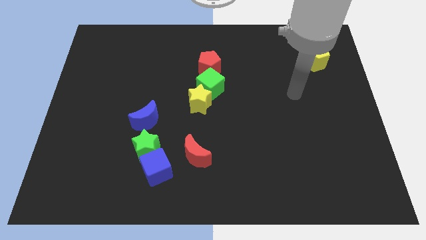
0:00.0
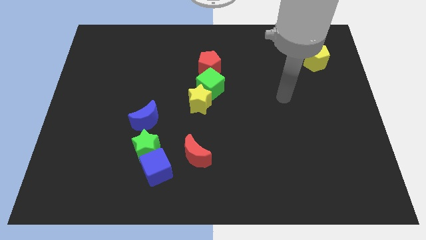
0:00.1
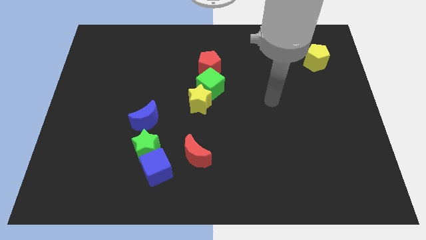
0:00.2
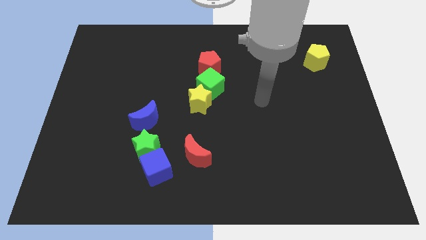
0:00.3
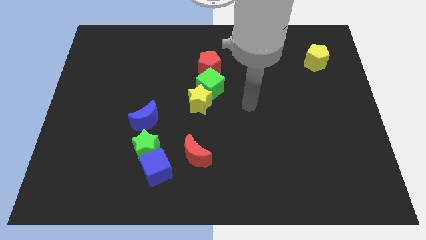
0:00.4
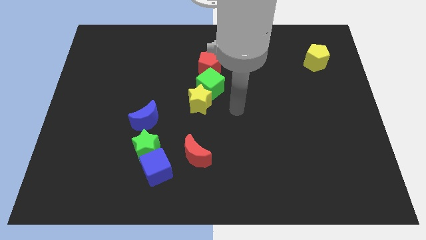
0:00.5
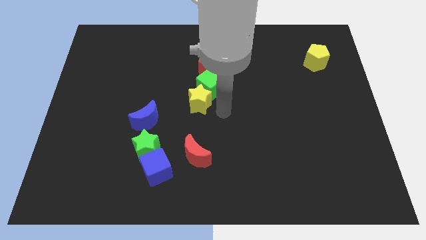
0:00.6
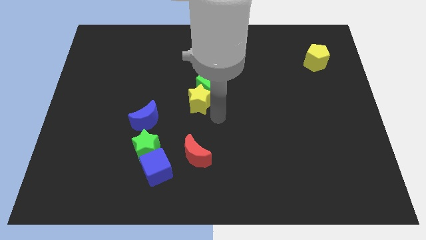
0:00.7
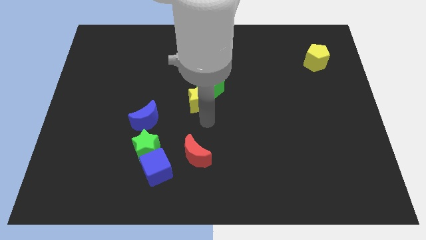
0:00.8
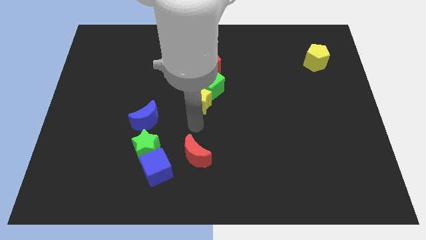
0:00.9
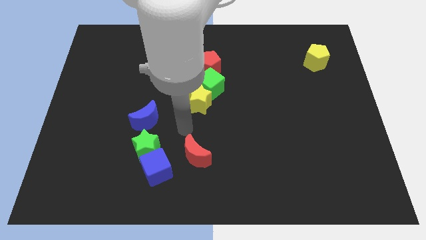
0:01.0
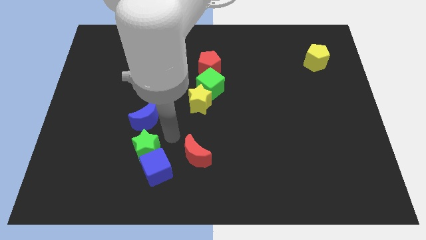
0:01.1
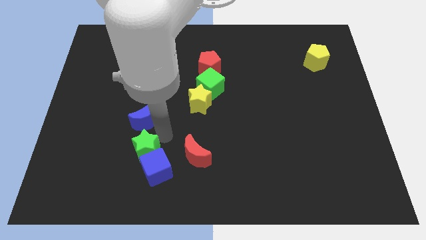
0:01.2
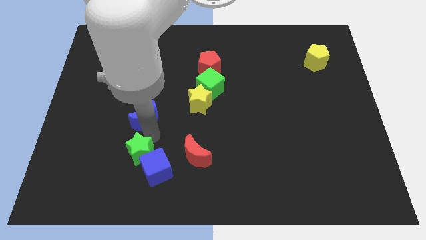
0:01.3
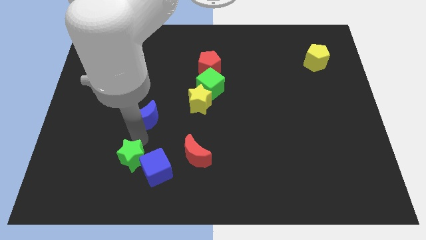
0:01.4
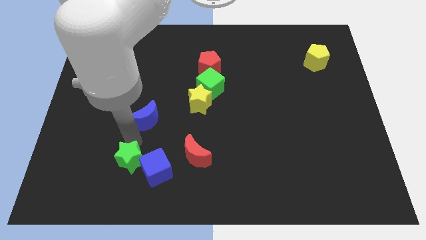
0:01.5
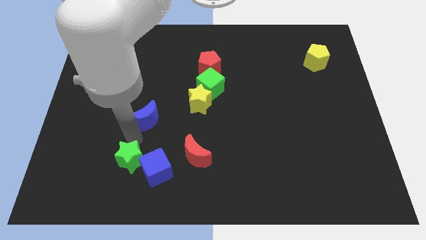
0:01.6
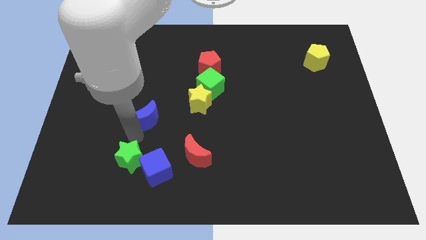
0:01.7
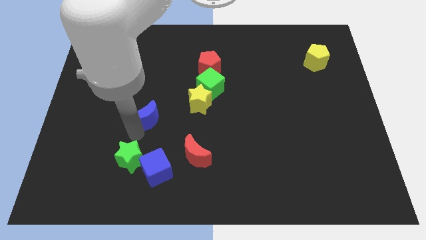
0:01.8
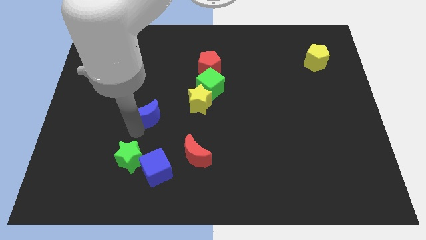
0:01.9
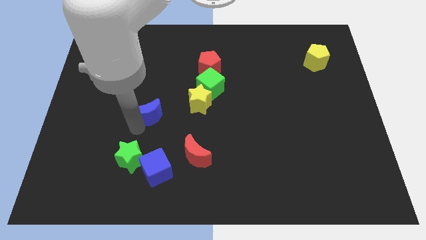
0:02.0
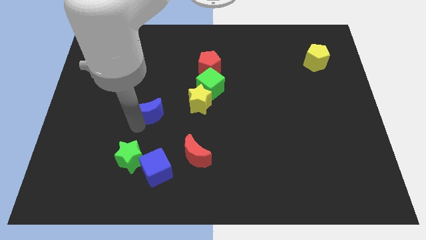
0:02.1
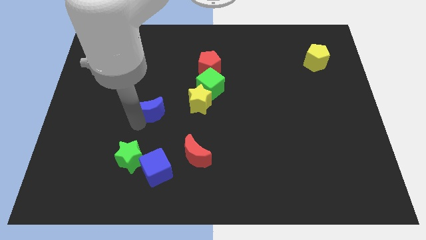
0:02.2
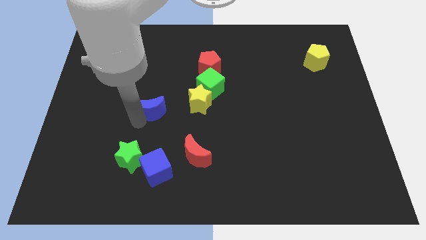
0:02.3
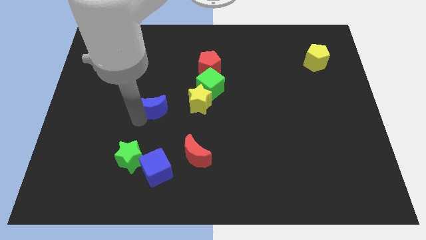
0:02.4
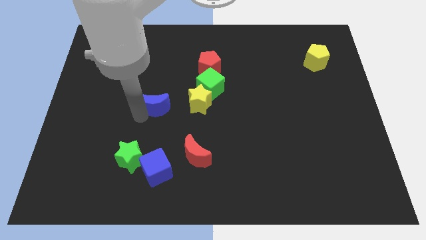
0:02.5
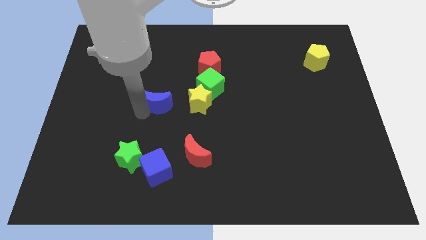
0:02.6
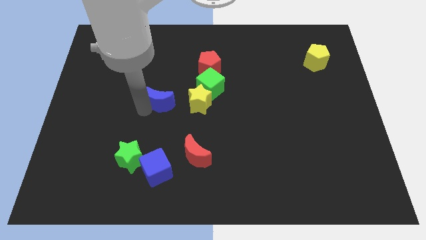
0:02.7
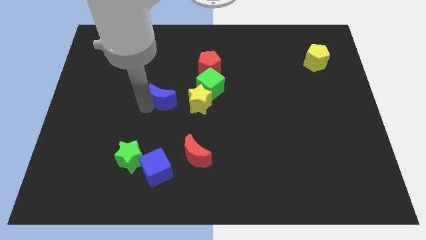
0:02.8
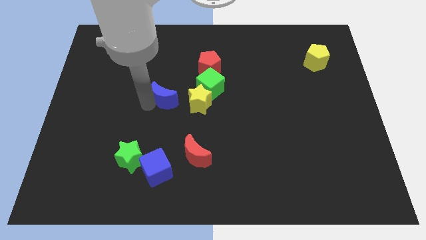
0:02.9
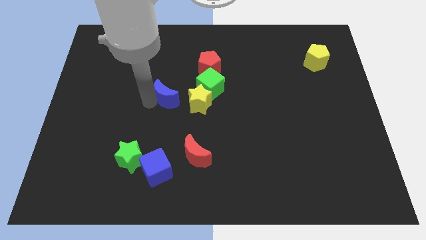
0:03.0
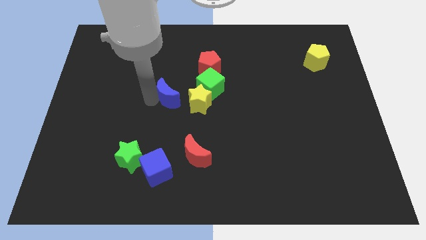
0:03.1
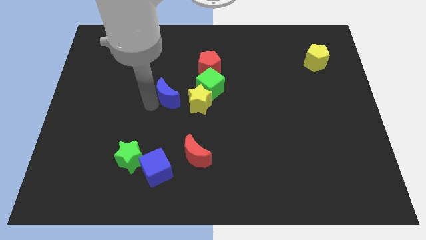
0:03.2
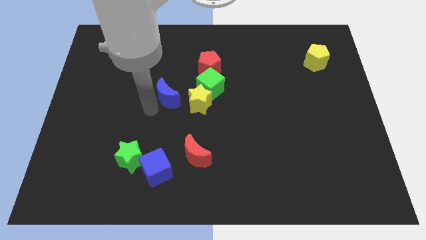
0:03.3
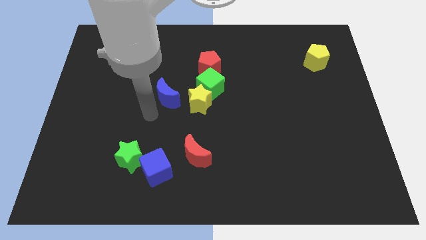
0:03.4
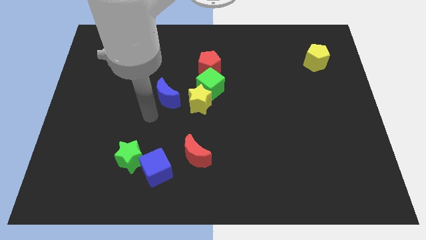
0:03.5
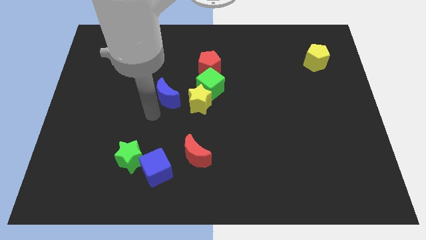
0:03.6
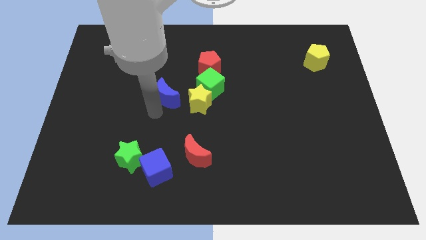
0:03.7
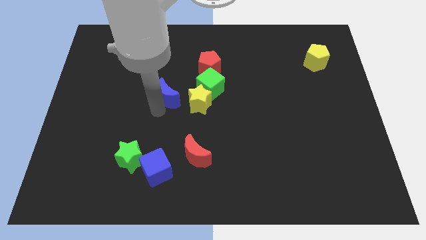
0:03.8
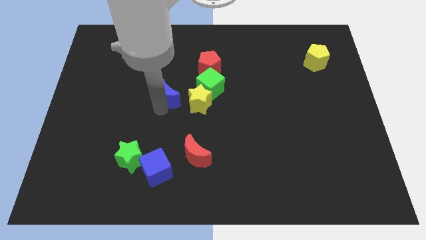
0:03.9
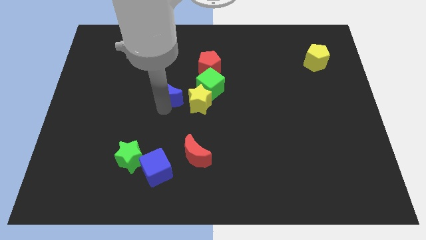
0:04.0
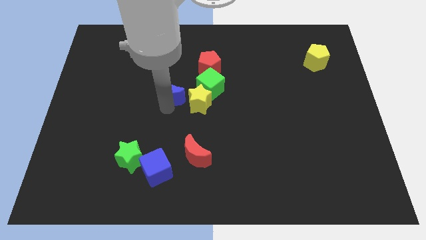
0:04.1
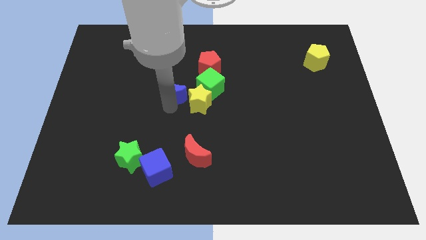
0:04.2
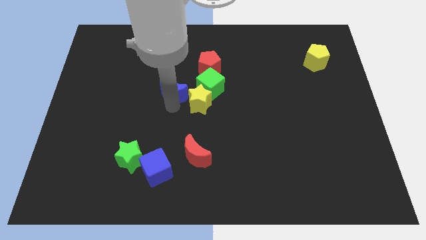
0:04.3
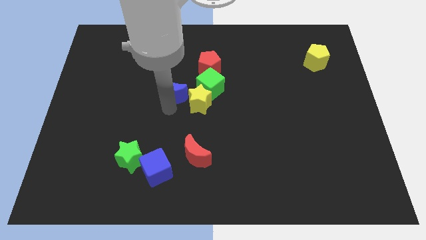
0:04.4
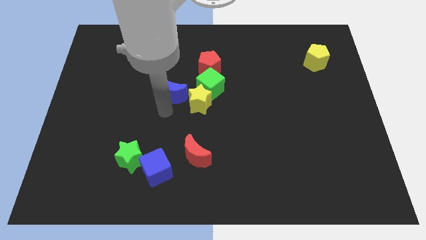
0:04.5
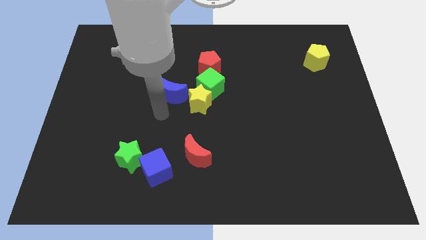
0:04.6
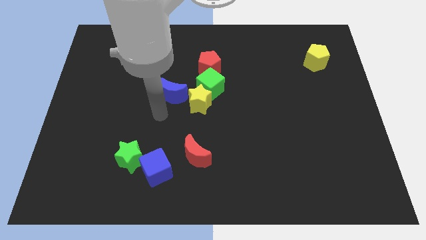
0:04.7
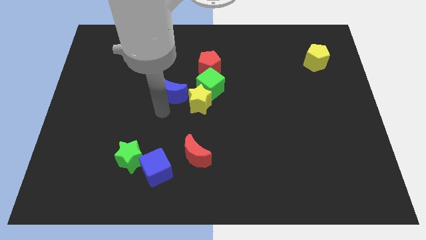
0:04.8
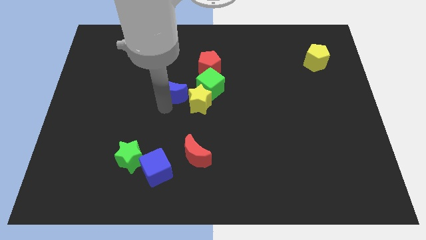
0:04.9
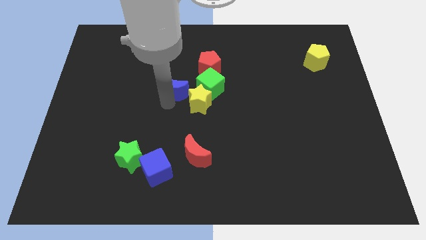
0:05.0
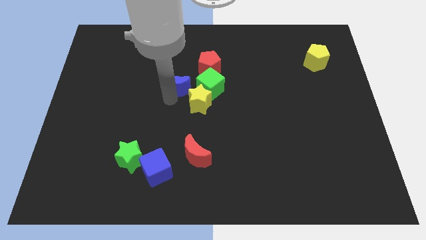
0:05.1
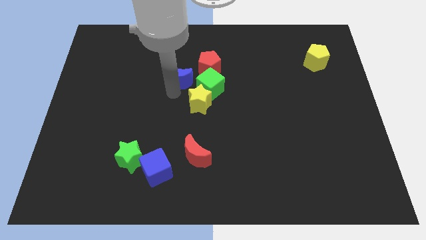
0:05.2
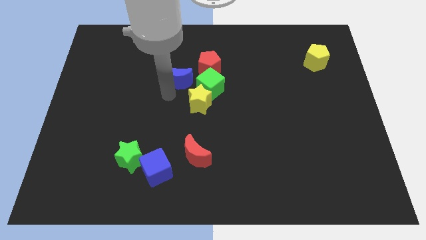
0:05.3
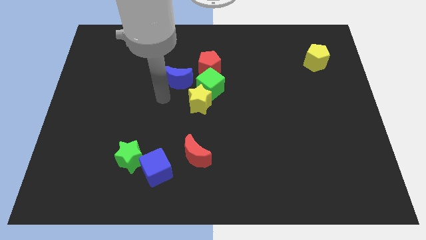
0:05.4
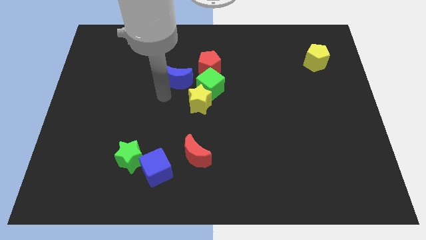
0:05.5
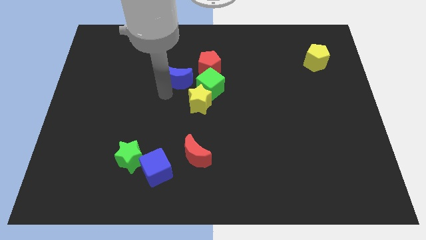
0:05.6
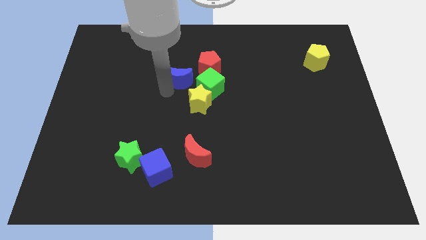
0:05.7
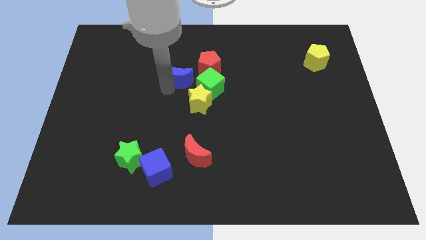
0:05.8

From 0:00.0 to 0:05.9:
move the blue moon to the top side of the yellow star

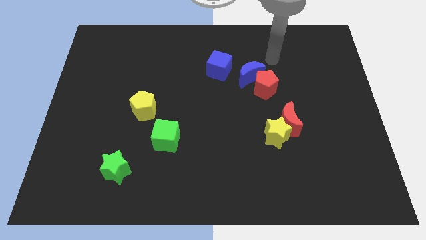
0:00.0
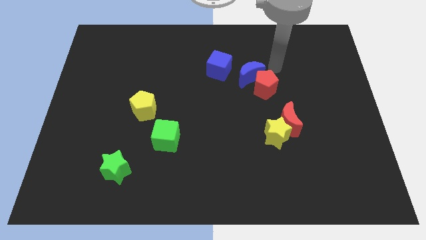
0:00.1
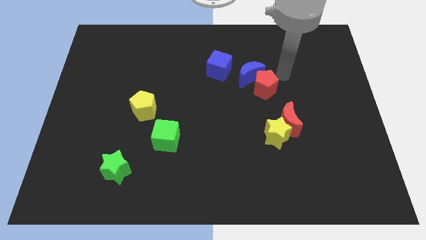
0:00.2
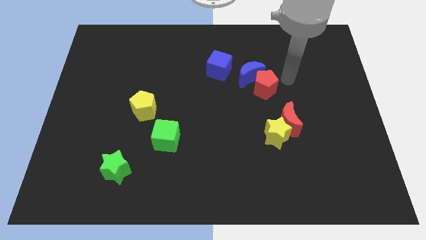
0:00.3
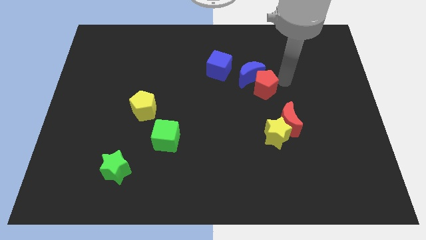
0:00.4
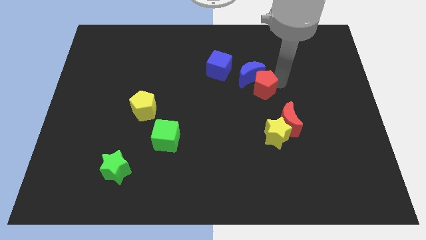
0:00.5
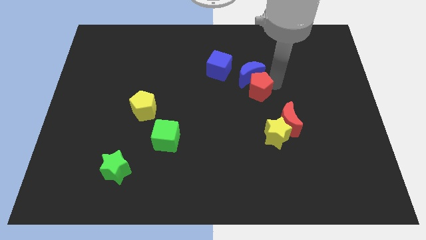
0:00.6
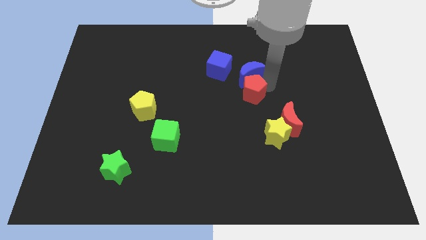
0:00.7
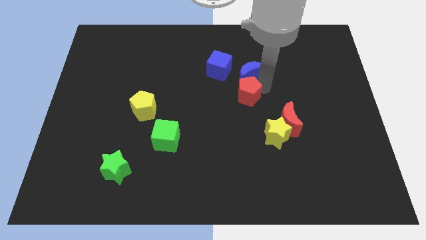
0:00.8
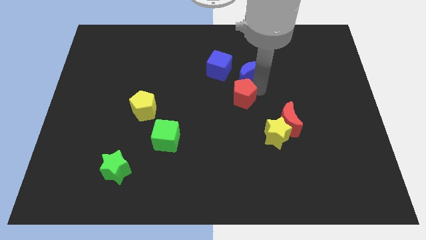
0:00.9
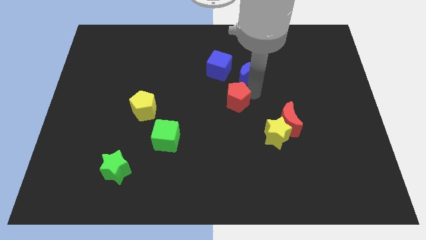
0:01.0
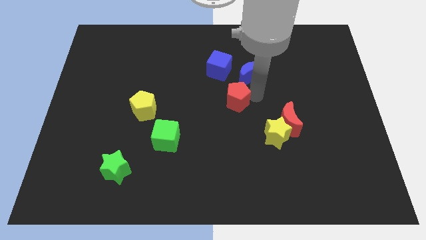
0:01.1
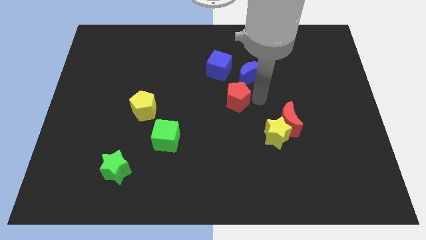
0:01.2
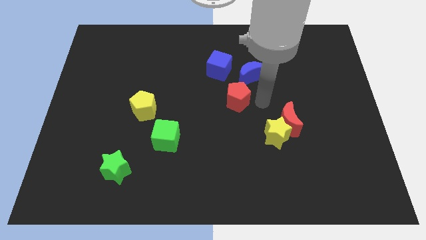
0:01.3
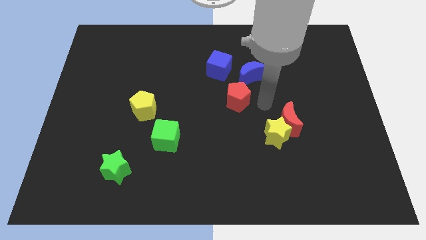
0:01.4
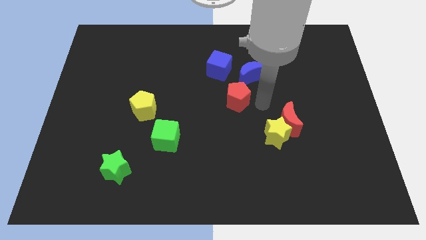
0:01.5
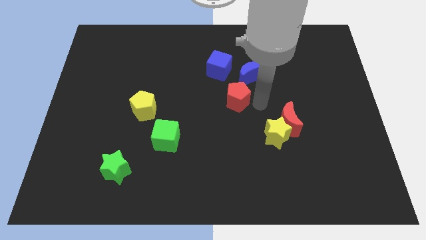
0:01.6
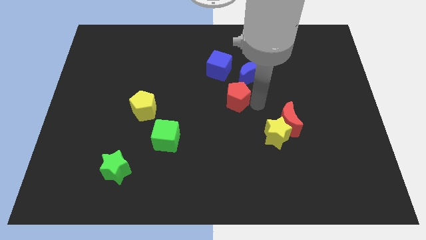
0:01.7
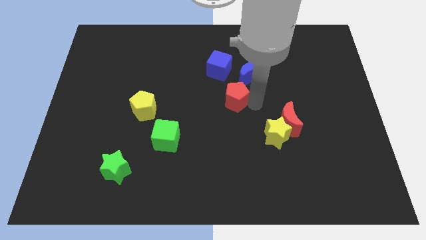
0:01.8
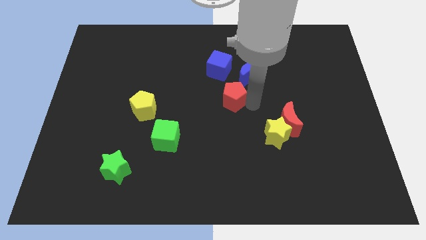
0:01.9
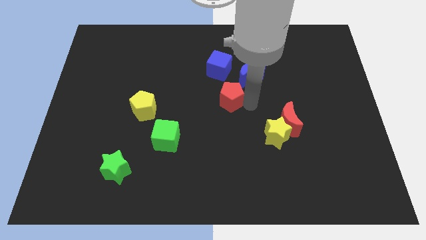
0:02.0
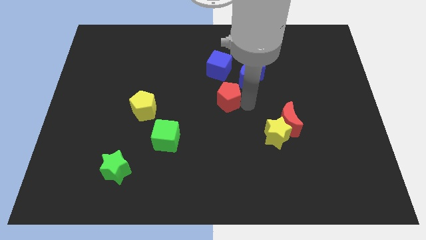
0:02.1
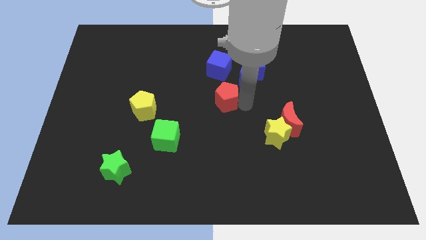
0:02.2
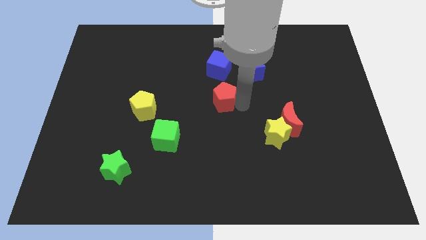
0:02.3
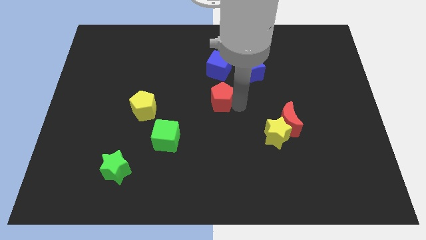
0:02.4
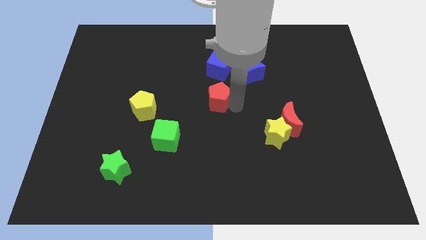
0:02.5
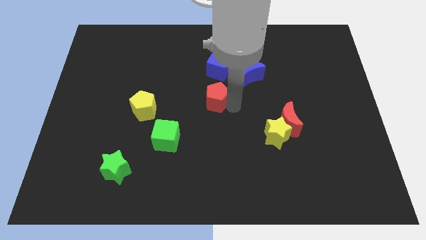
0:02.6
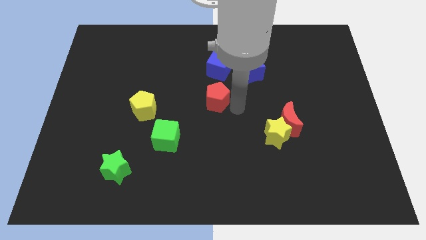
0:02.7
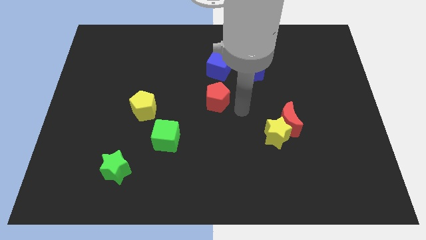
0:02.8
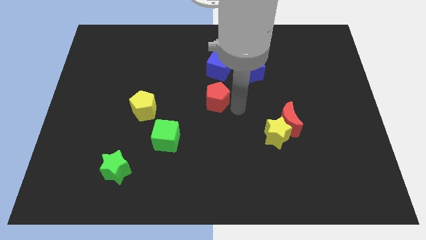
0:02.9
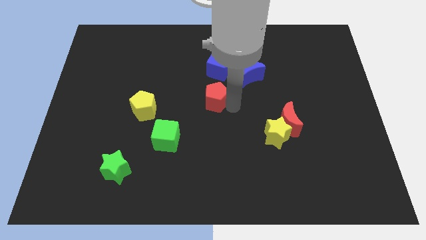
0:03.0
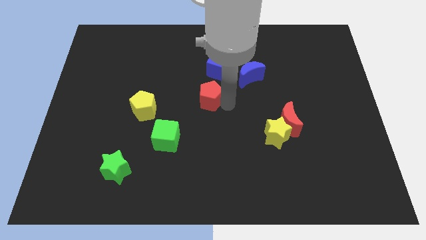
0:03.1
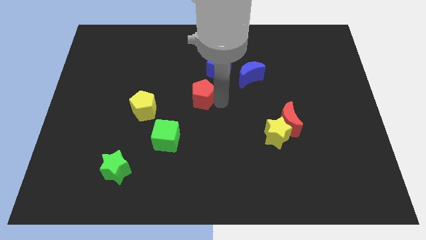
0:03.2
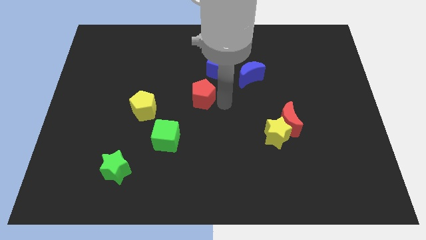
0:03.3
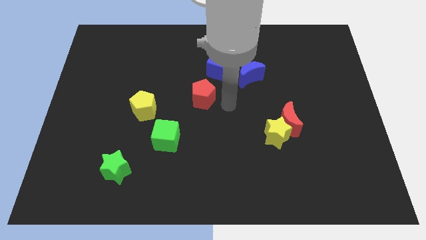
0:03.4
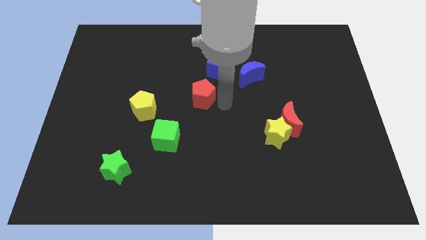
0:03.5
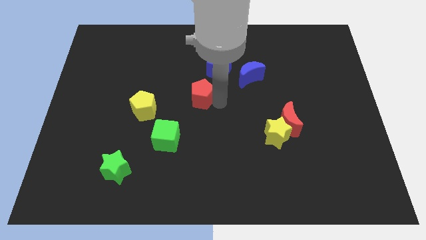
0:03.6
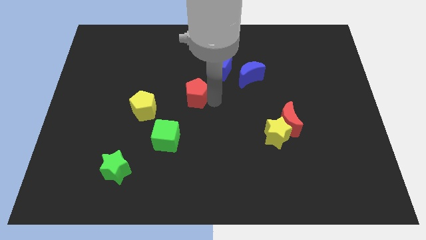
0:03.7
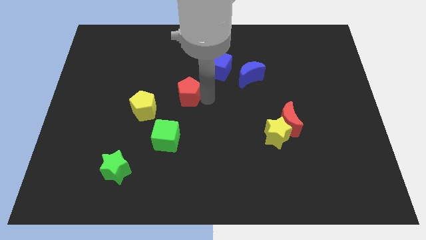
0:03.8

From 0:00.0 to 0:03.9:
slide the red pentagon to the top right side of the yellow pentagon
